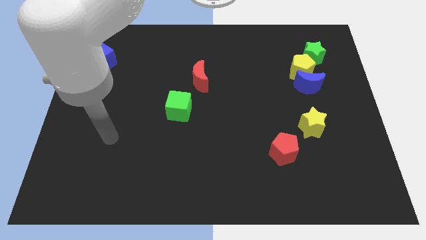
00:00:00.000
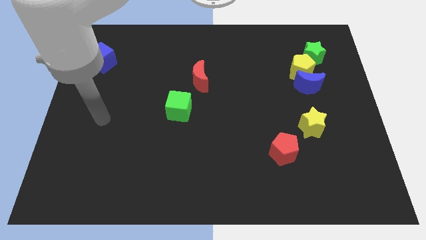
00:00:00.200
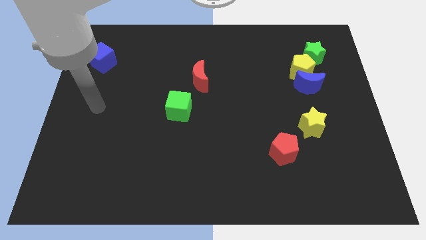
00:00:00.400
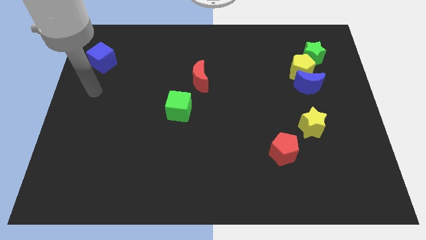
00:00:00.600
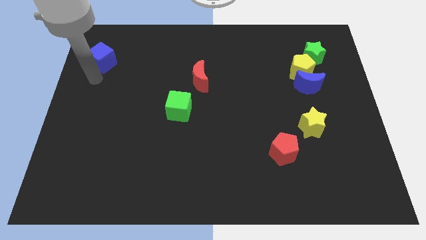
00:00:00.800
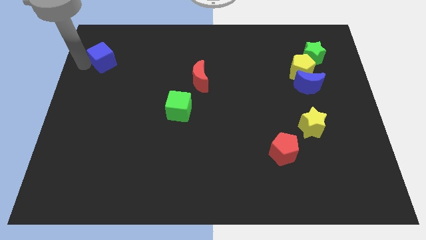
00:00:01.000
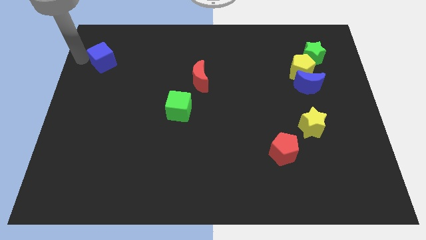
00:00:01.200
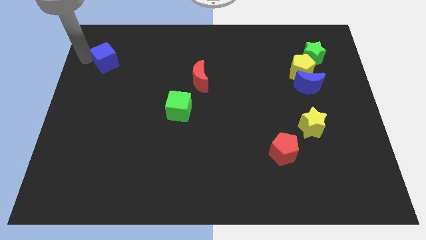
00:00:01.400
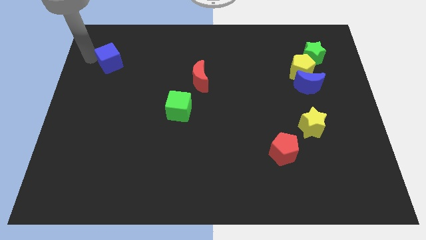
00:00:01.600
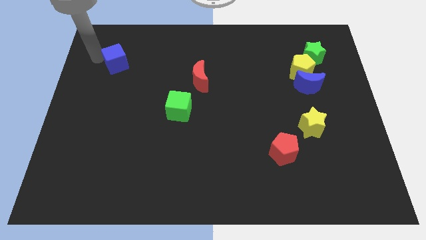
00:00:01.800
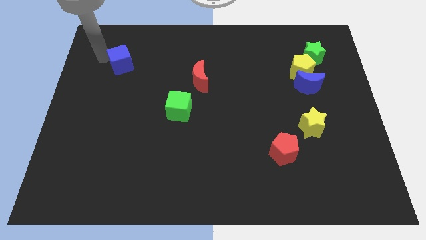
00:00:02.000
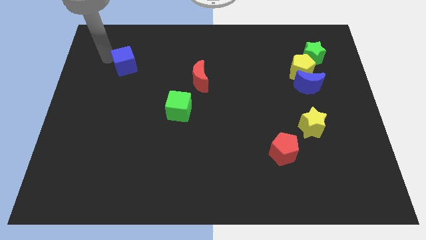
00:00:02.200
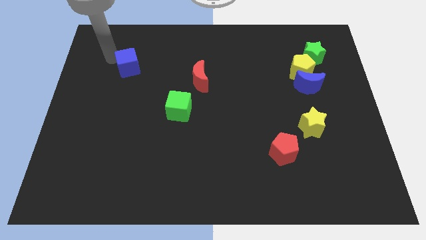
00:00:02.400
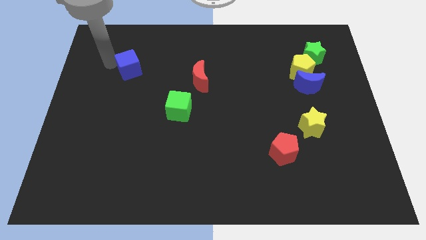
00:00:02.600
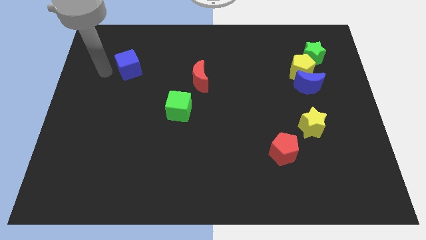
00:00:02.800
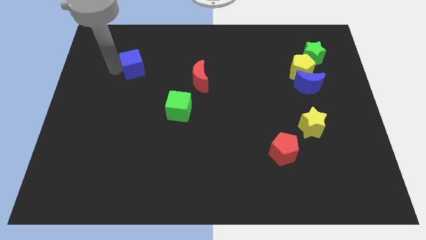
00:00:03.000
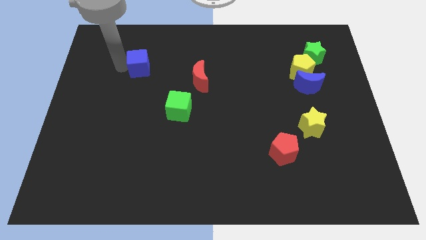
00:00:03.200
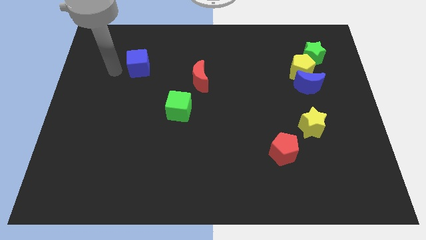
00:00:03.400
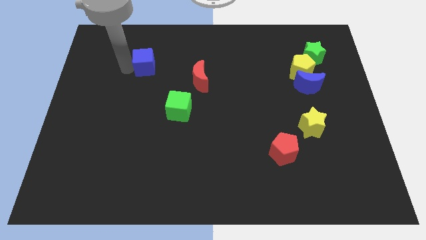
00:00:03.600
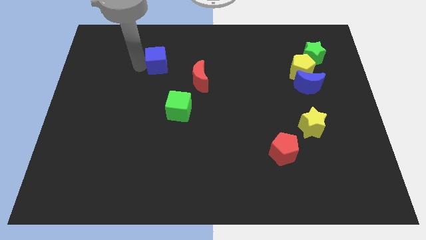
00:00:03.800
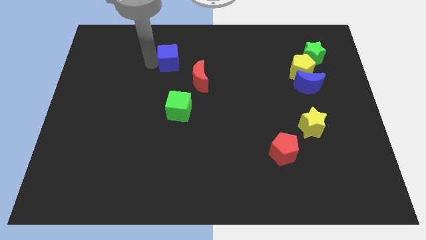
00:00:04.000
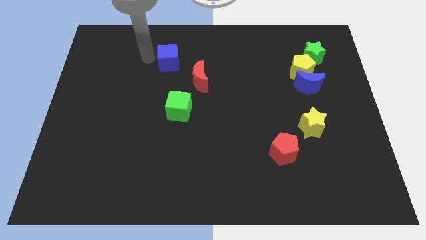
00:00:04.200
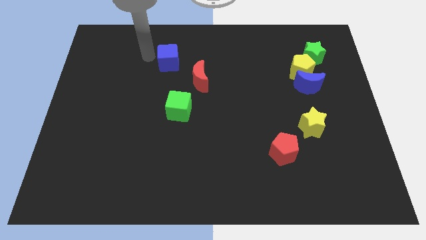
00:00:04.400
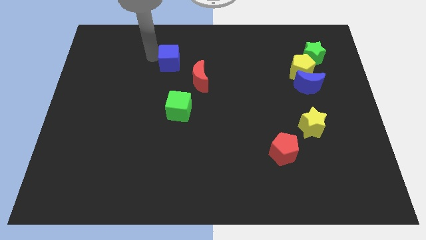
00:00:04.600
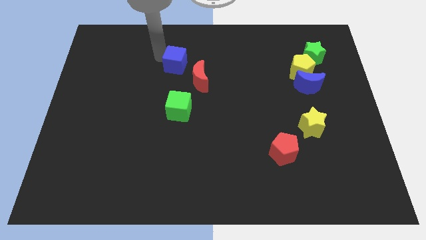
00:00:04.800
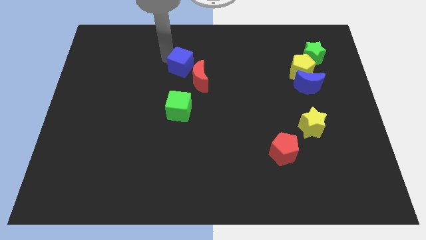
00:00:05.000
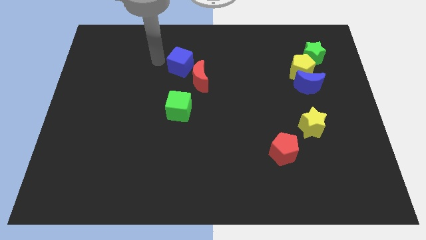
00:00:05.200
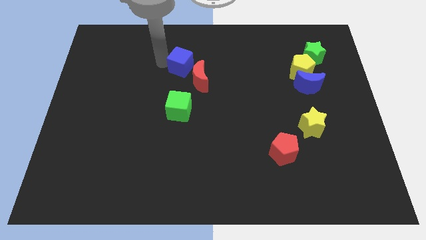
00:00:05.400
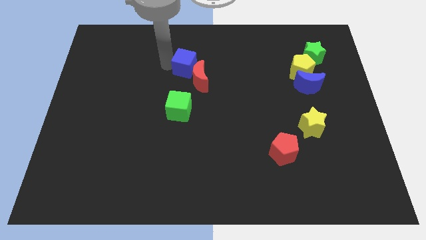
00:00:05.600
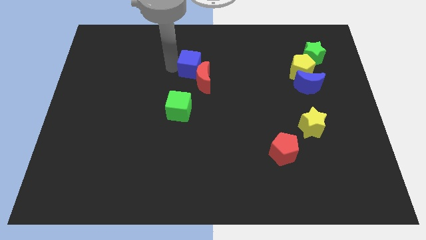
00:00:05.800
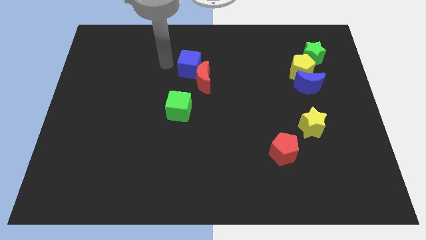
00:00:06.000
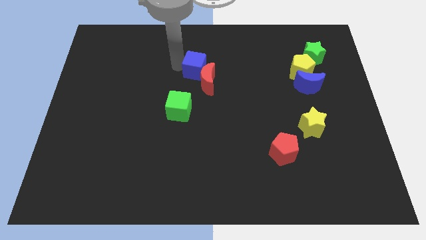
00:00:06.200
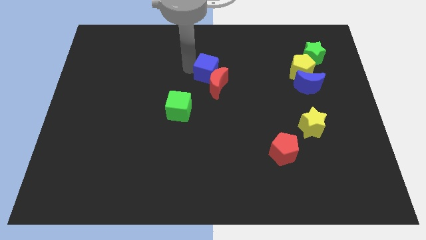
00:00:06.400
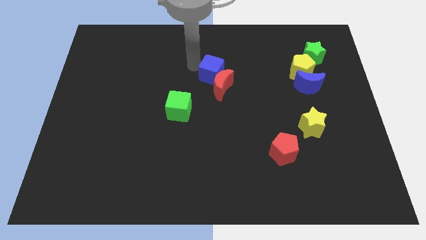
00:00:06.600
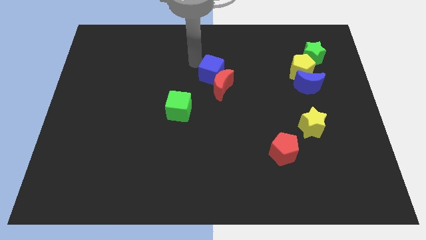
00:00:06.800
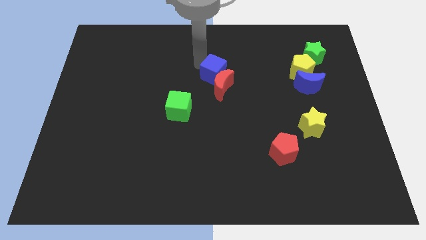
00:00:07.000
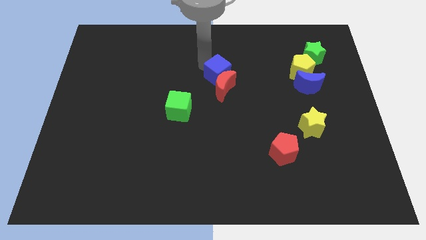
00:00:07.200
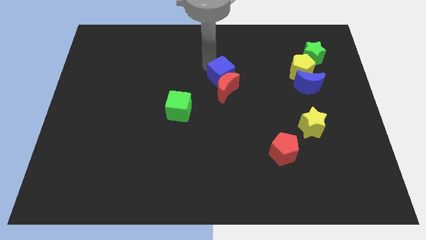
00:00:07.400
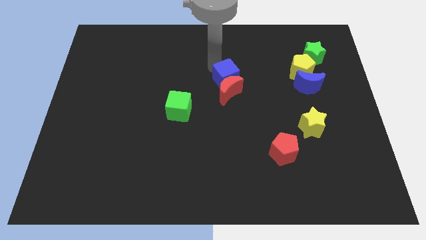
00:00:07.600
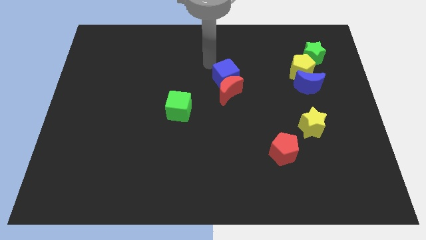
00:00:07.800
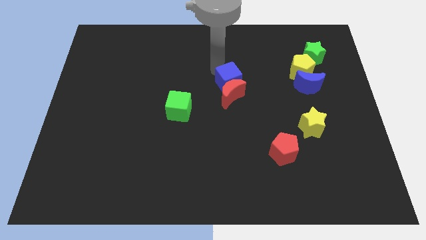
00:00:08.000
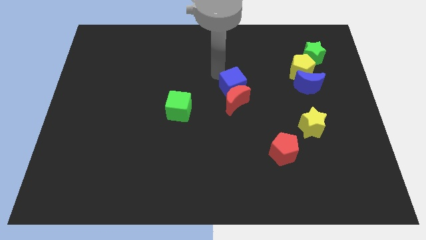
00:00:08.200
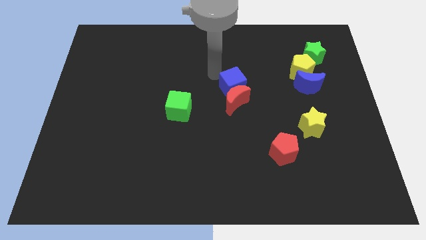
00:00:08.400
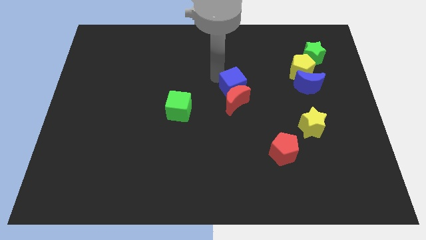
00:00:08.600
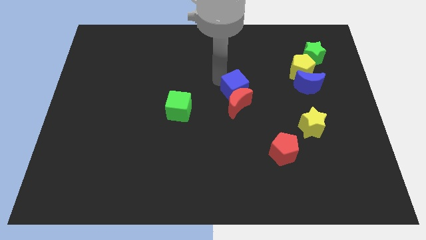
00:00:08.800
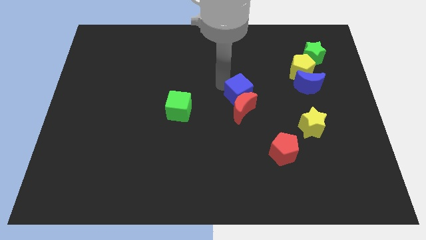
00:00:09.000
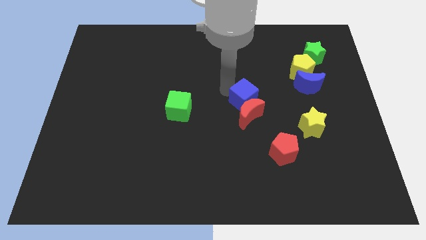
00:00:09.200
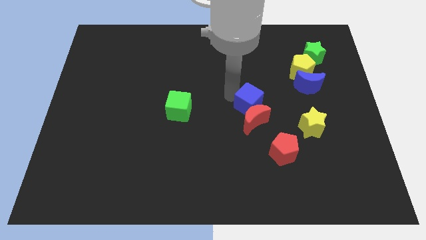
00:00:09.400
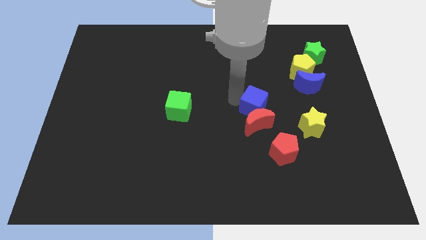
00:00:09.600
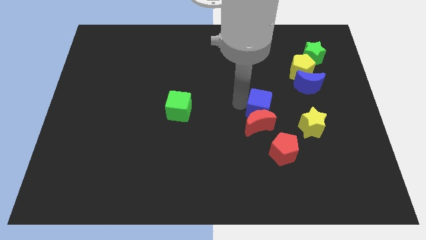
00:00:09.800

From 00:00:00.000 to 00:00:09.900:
move the blue cube to the top side of the red pentagon

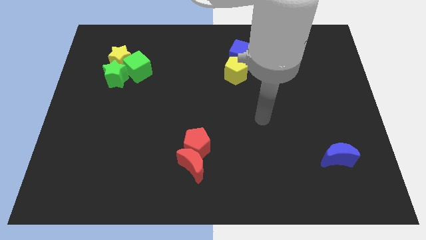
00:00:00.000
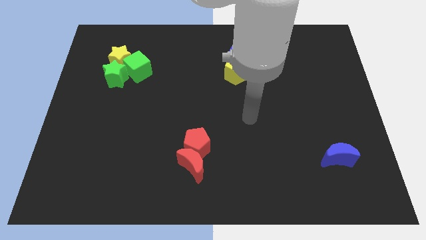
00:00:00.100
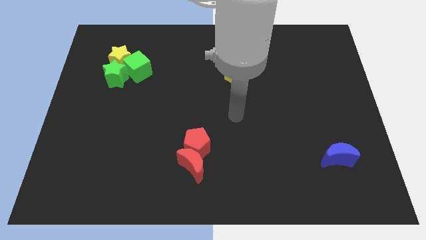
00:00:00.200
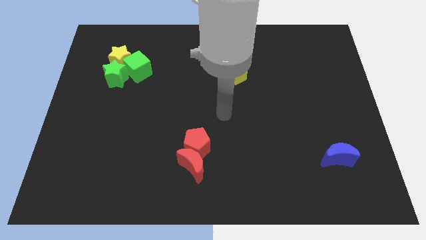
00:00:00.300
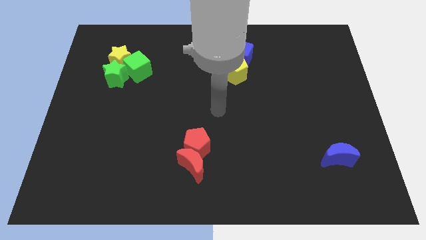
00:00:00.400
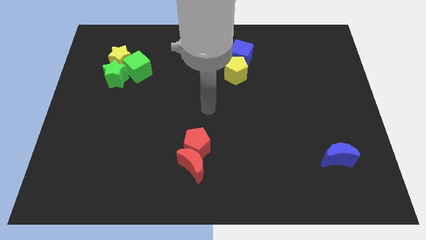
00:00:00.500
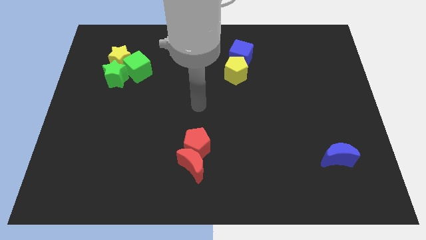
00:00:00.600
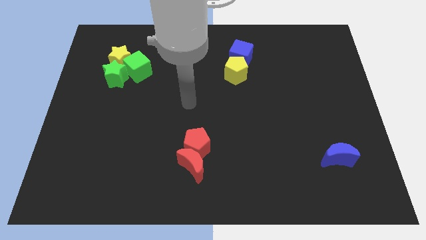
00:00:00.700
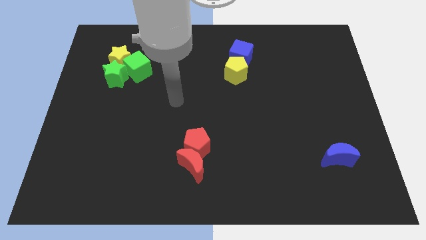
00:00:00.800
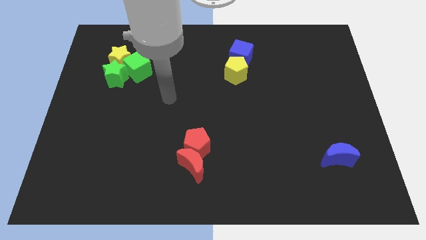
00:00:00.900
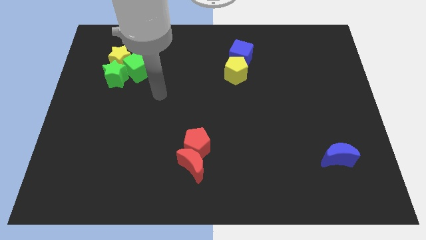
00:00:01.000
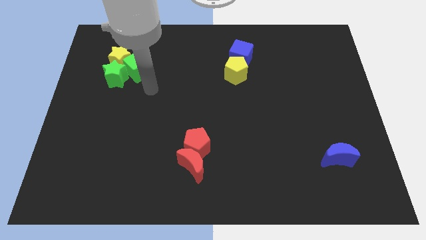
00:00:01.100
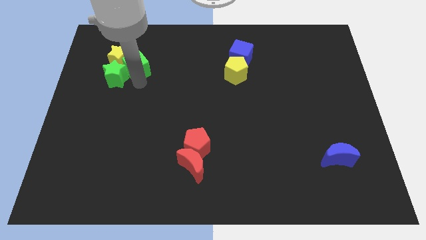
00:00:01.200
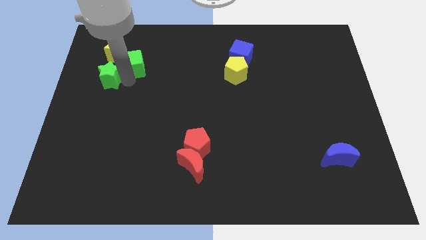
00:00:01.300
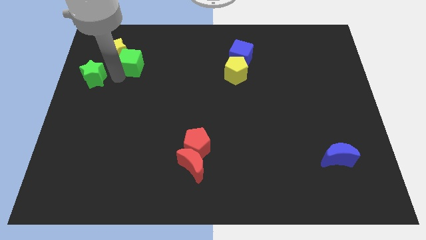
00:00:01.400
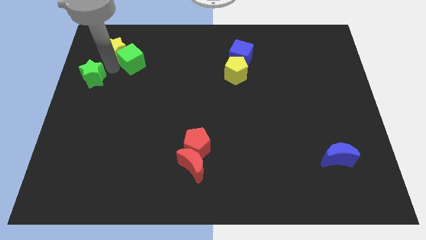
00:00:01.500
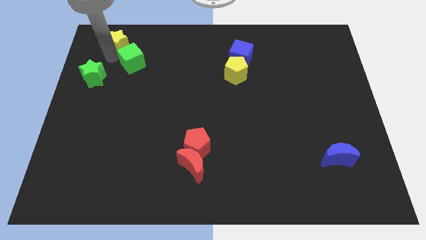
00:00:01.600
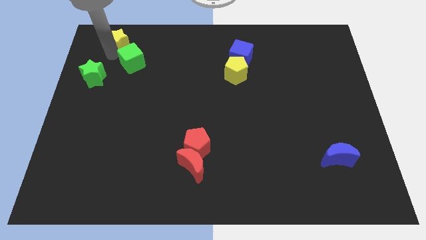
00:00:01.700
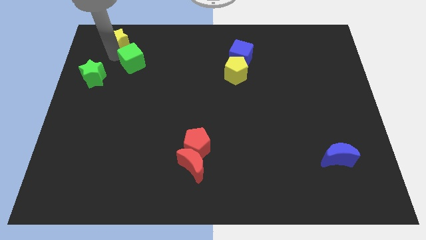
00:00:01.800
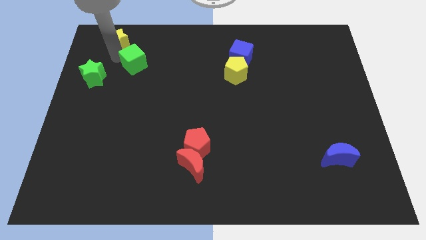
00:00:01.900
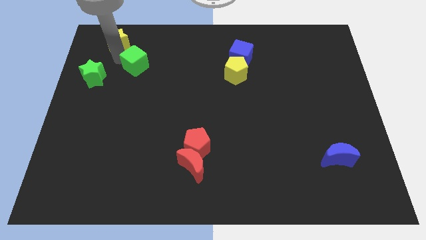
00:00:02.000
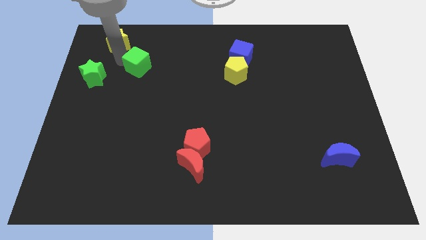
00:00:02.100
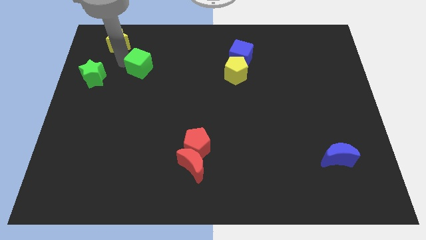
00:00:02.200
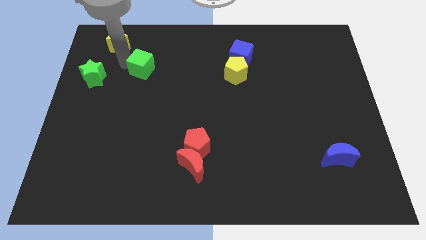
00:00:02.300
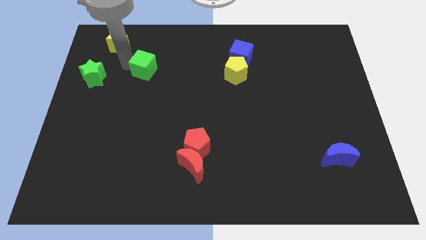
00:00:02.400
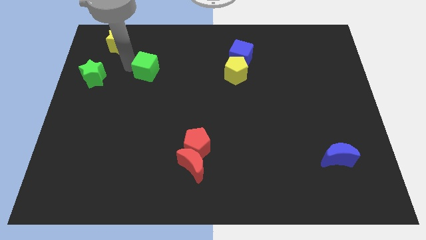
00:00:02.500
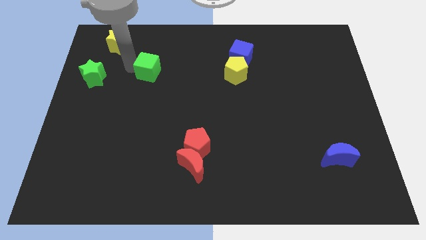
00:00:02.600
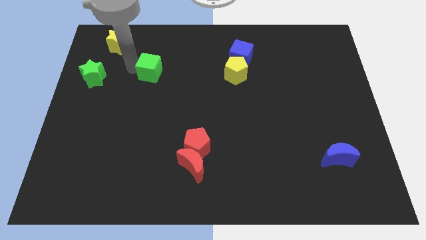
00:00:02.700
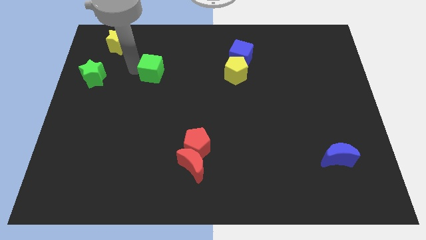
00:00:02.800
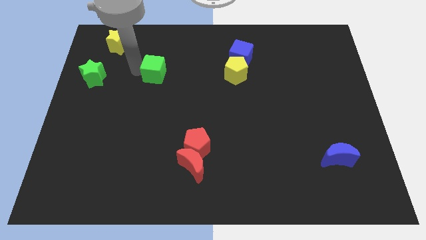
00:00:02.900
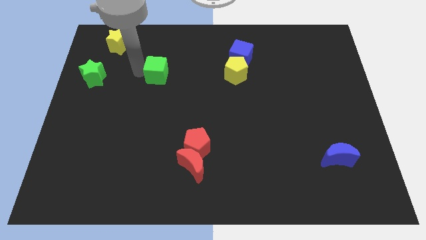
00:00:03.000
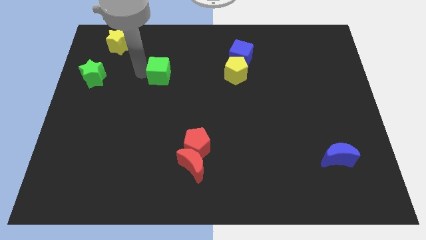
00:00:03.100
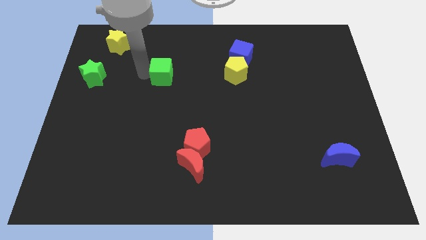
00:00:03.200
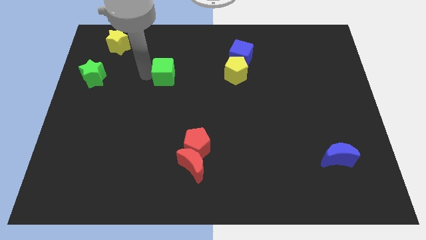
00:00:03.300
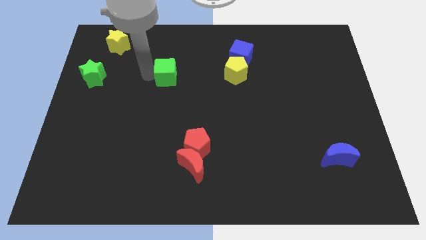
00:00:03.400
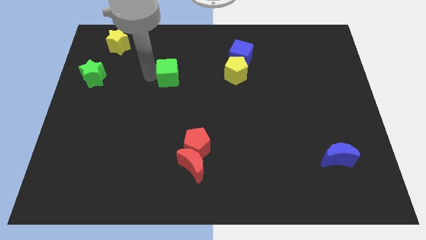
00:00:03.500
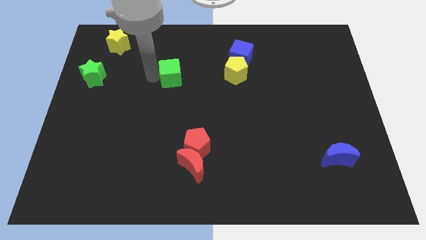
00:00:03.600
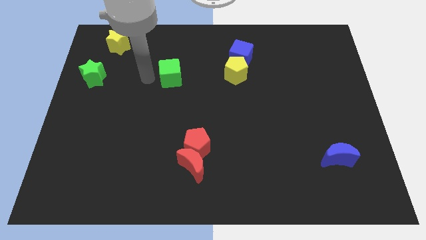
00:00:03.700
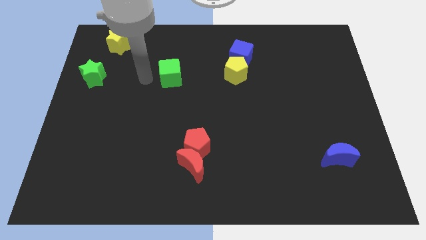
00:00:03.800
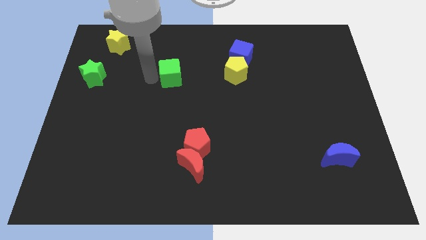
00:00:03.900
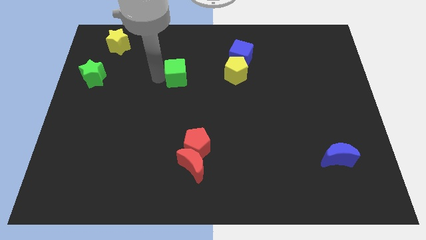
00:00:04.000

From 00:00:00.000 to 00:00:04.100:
push the green cube to the left side of the yellow pentagon
